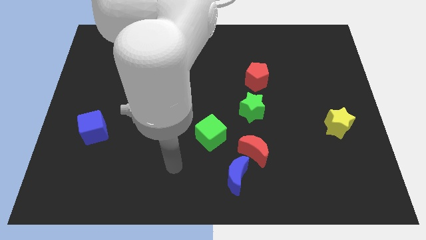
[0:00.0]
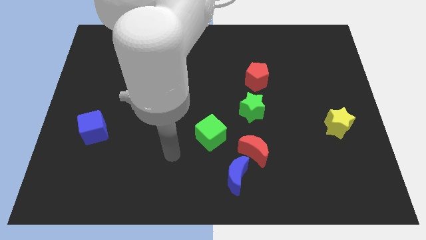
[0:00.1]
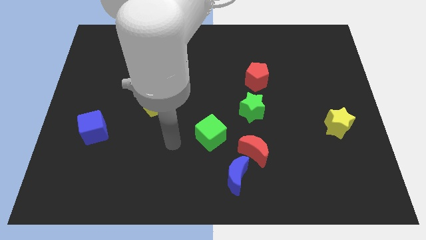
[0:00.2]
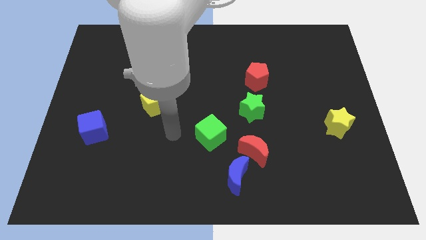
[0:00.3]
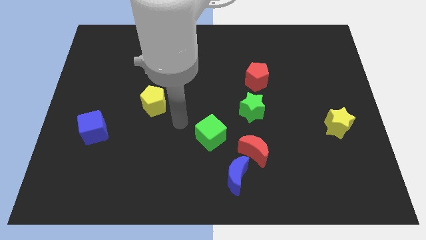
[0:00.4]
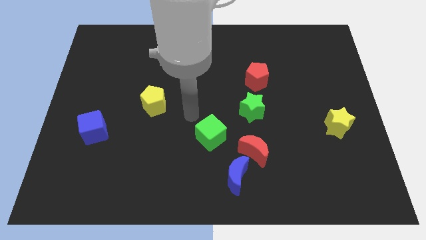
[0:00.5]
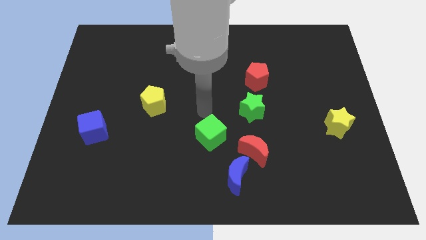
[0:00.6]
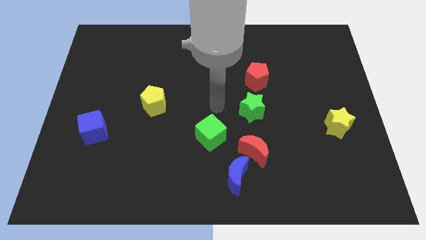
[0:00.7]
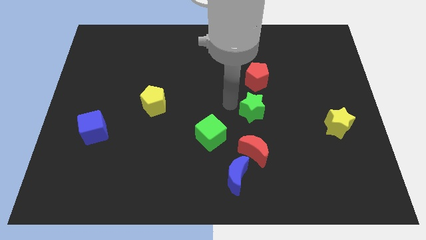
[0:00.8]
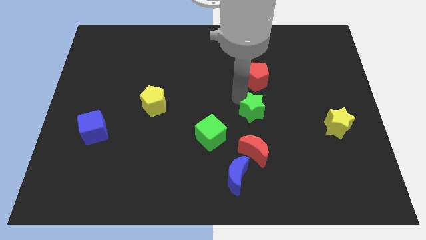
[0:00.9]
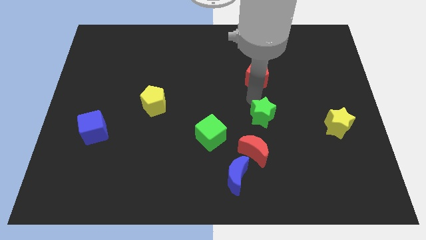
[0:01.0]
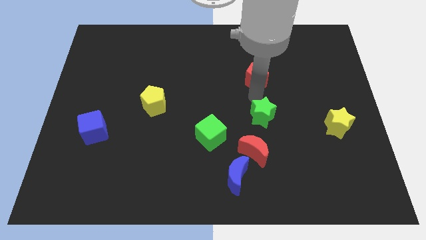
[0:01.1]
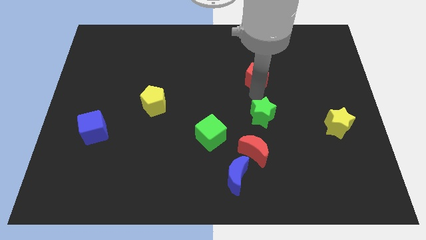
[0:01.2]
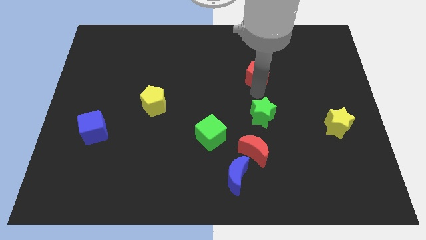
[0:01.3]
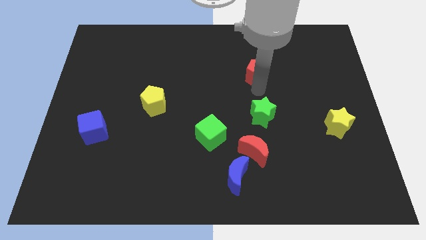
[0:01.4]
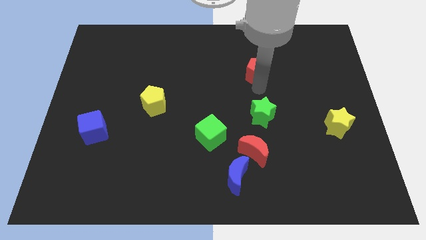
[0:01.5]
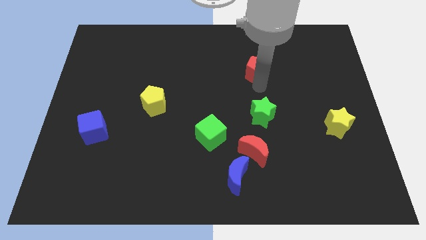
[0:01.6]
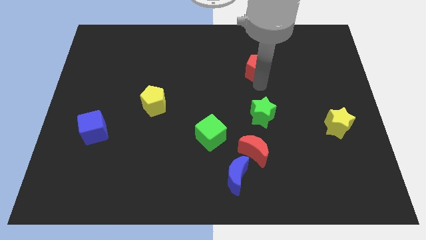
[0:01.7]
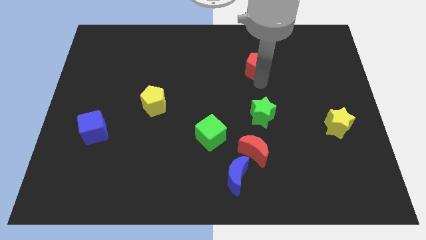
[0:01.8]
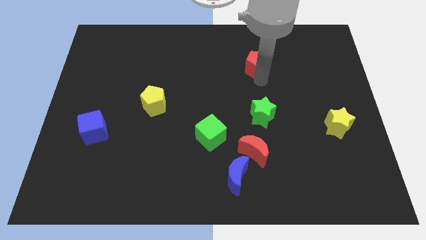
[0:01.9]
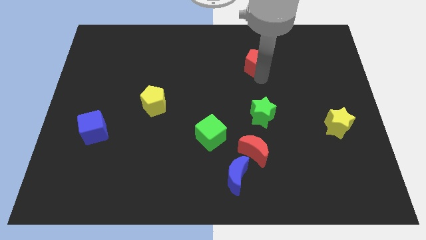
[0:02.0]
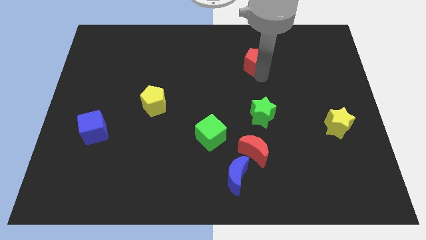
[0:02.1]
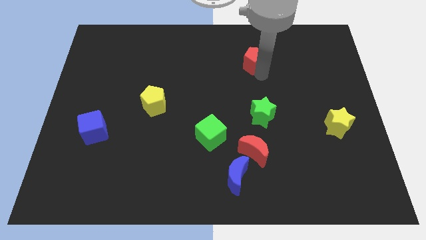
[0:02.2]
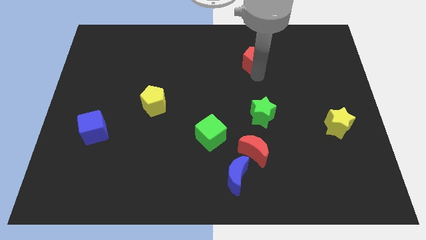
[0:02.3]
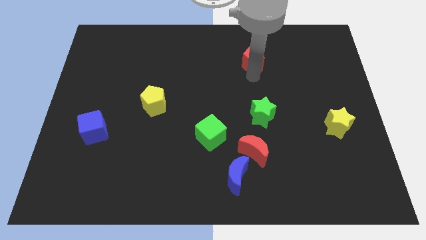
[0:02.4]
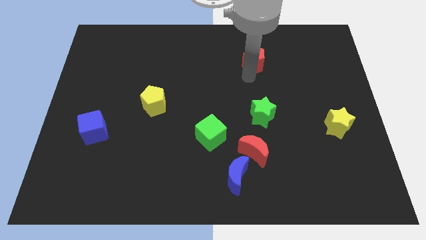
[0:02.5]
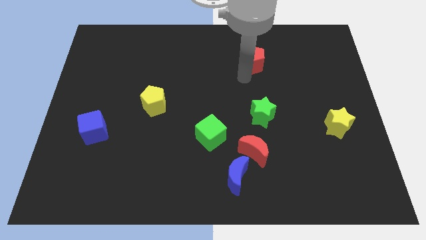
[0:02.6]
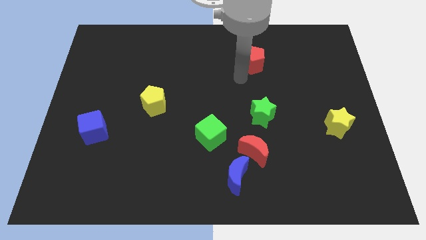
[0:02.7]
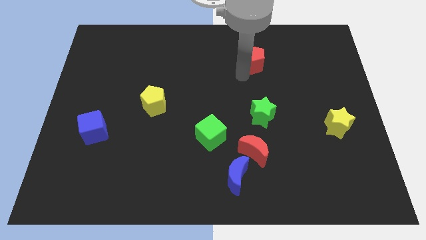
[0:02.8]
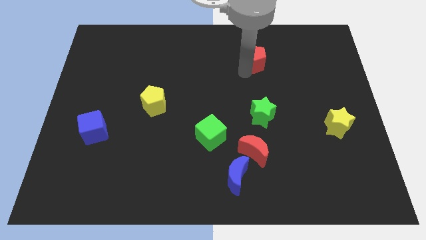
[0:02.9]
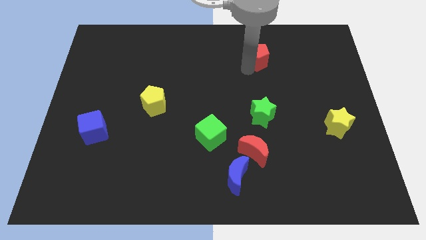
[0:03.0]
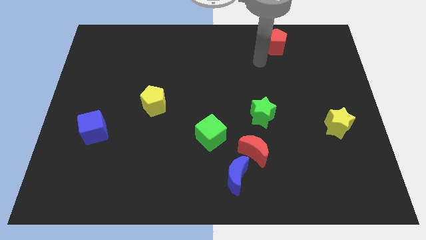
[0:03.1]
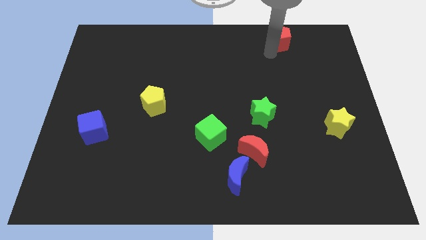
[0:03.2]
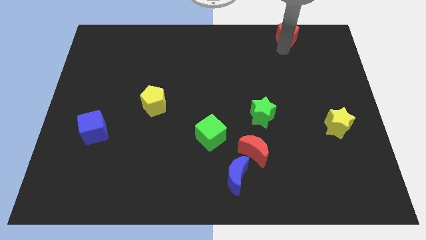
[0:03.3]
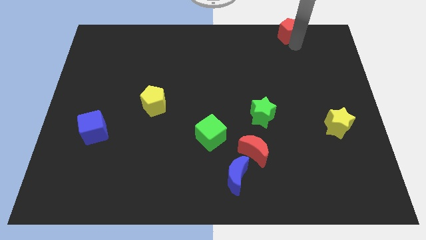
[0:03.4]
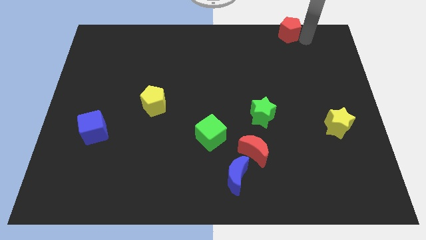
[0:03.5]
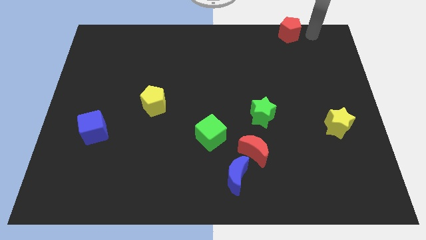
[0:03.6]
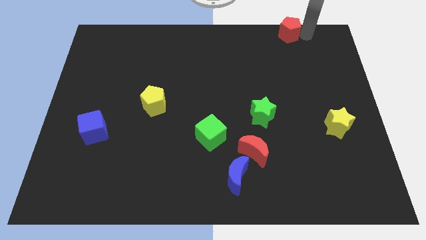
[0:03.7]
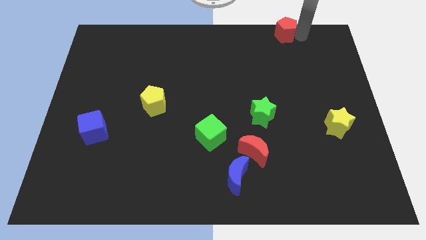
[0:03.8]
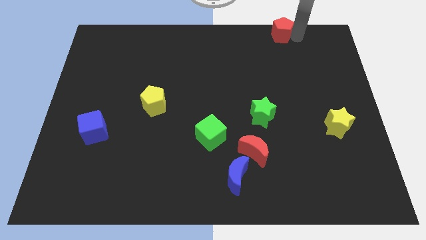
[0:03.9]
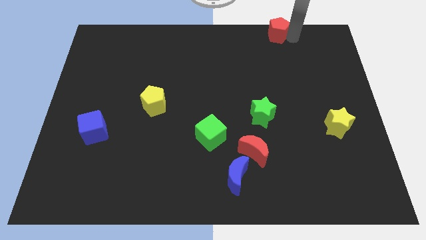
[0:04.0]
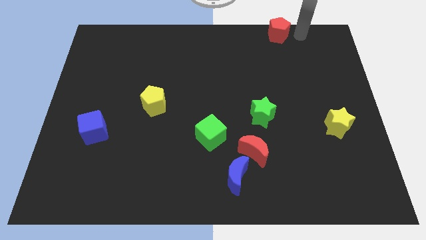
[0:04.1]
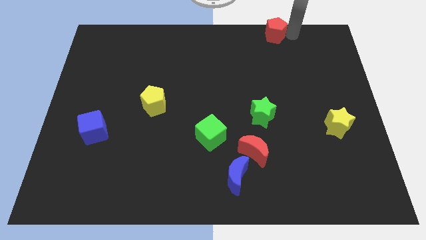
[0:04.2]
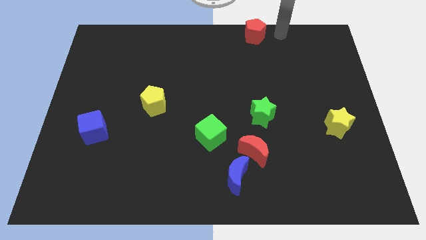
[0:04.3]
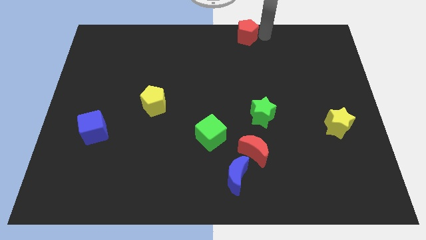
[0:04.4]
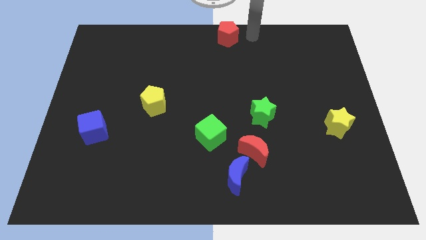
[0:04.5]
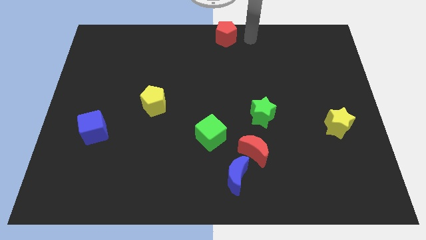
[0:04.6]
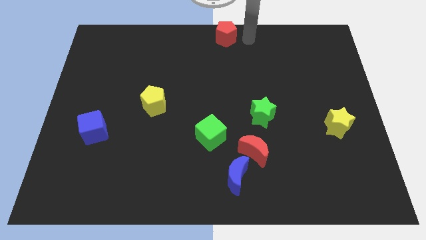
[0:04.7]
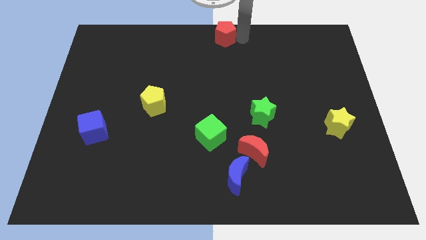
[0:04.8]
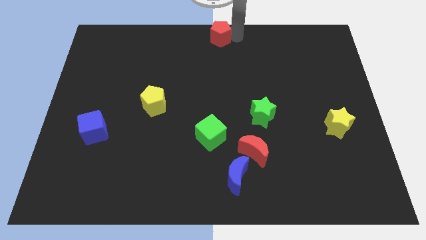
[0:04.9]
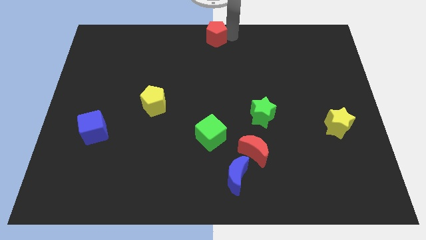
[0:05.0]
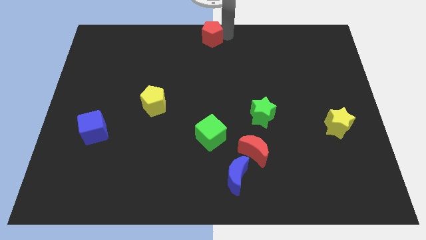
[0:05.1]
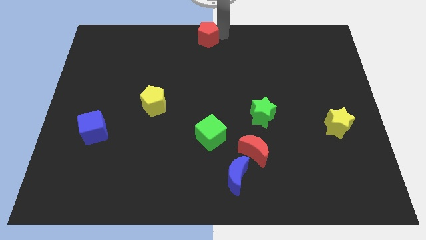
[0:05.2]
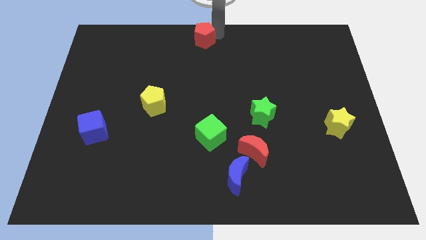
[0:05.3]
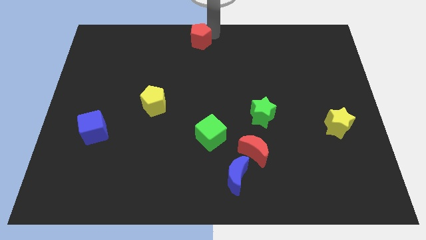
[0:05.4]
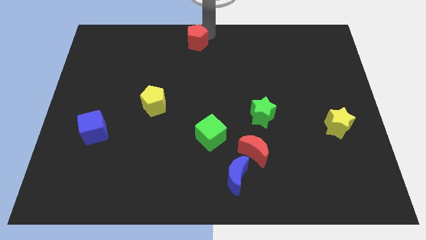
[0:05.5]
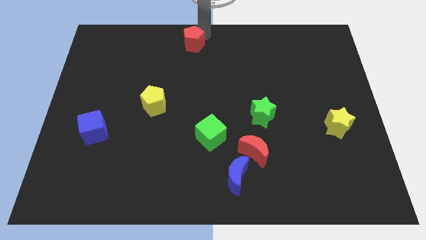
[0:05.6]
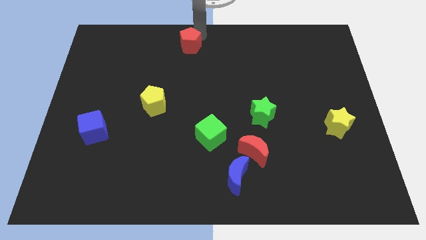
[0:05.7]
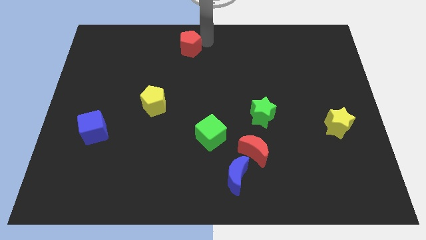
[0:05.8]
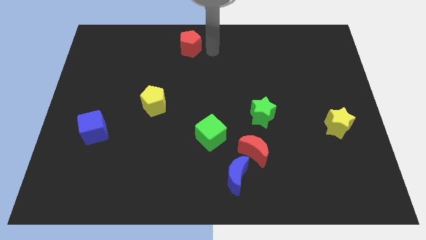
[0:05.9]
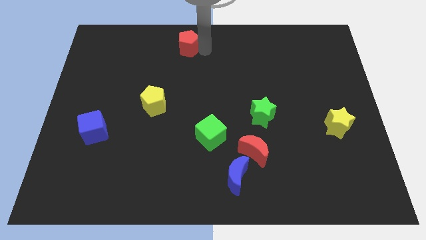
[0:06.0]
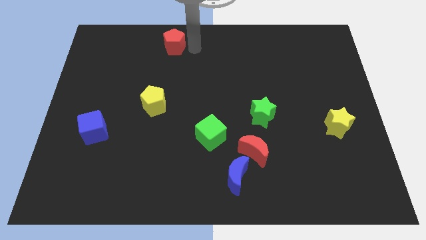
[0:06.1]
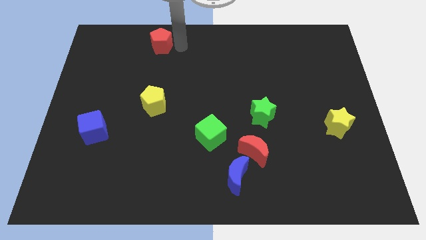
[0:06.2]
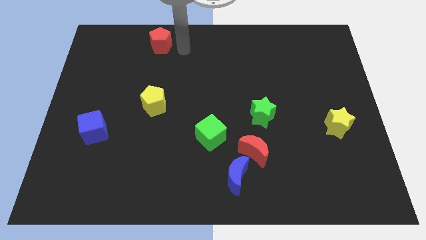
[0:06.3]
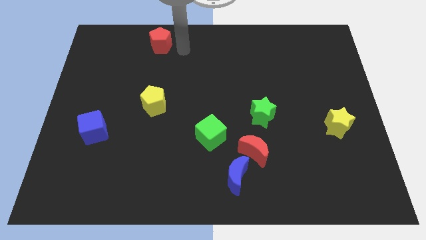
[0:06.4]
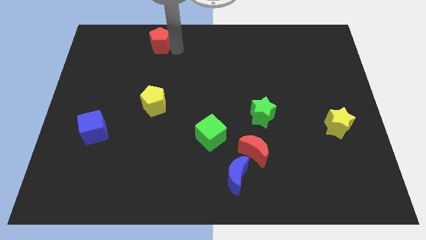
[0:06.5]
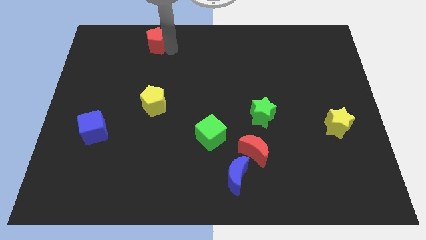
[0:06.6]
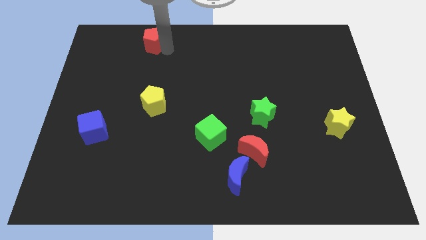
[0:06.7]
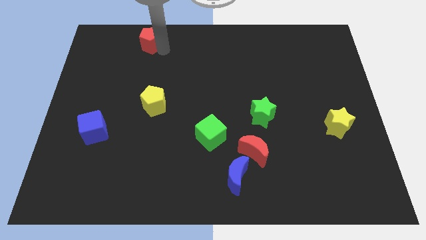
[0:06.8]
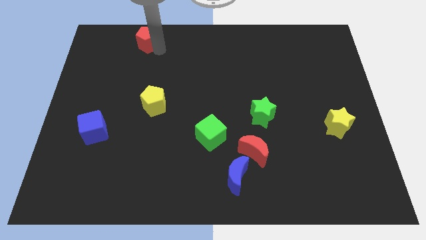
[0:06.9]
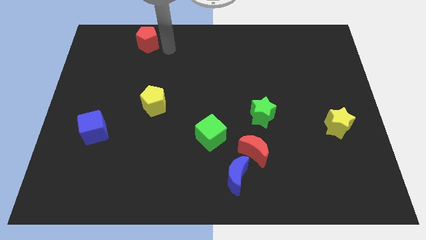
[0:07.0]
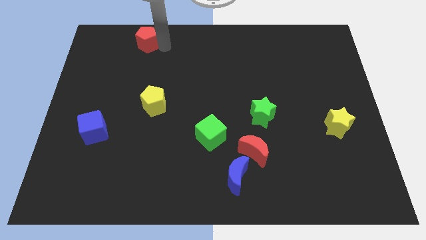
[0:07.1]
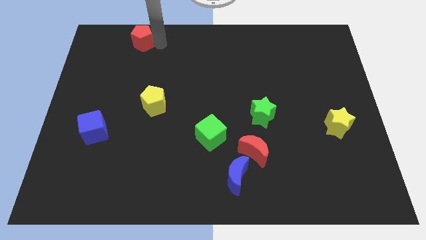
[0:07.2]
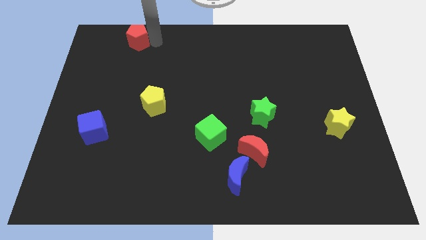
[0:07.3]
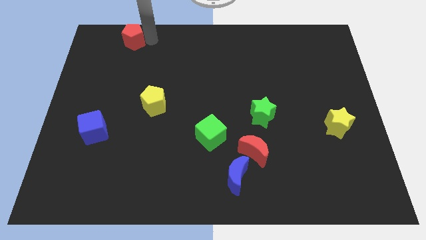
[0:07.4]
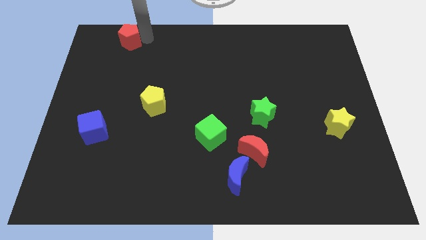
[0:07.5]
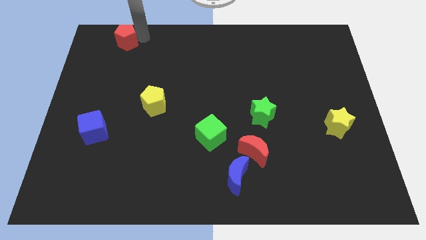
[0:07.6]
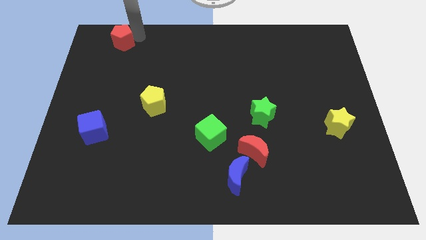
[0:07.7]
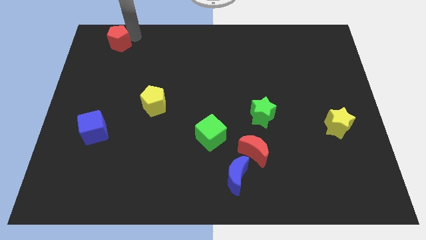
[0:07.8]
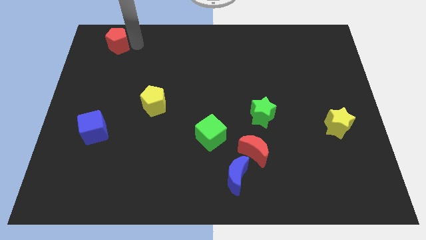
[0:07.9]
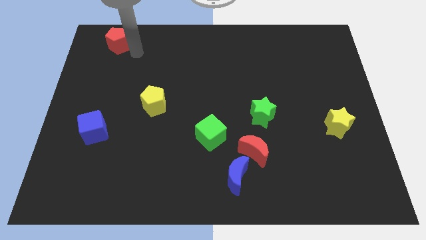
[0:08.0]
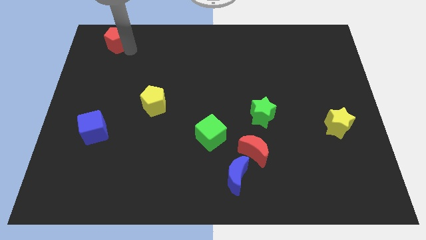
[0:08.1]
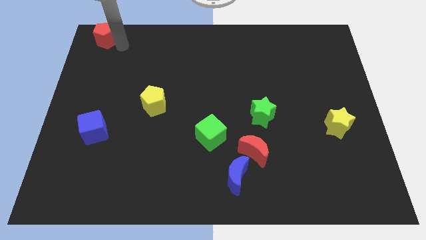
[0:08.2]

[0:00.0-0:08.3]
move the red pentagon to the upper left corner

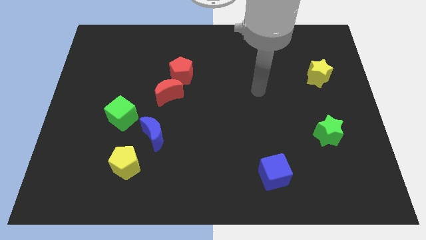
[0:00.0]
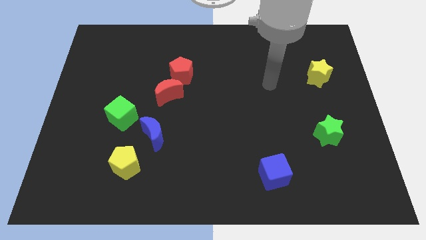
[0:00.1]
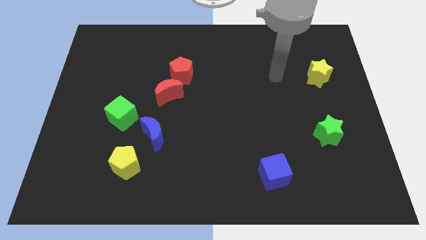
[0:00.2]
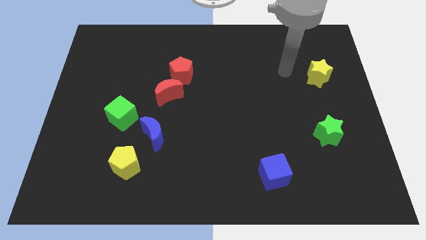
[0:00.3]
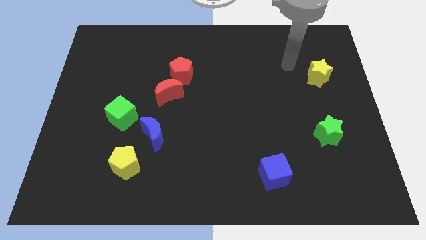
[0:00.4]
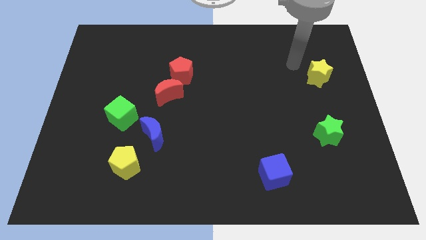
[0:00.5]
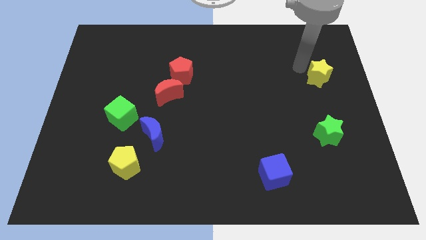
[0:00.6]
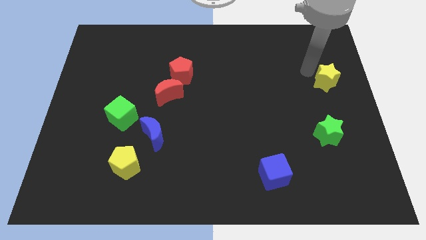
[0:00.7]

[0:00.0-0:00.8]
push the yellow star to the right side of the board
